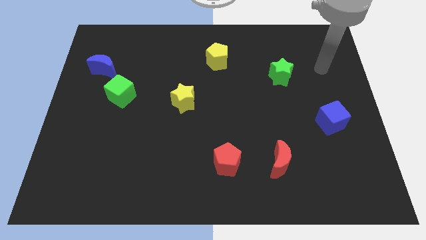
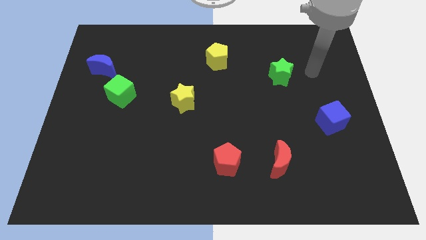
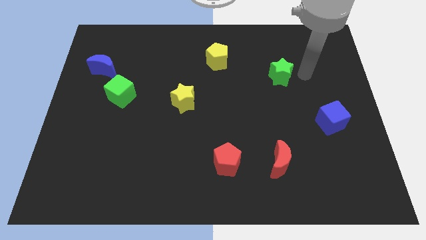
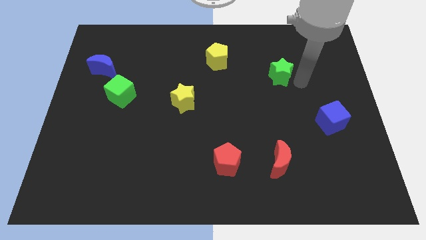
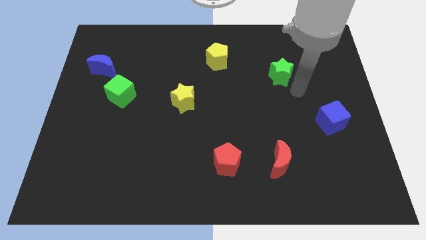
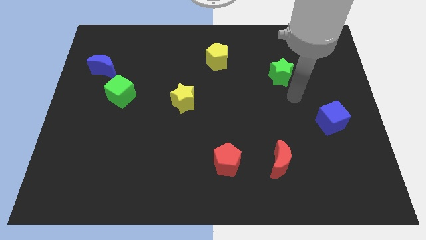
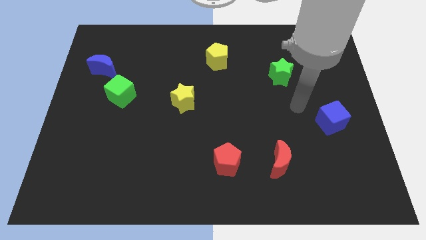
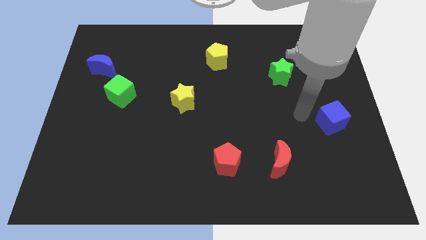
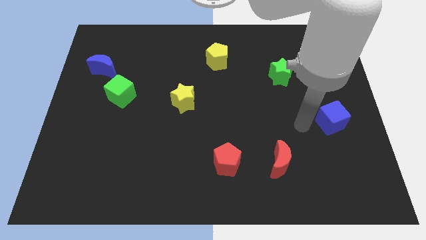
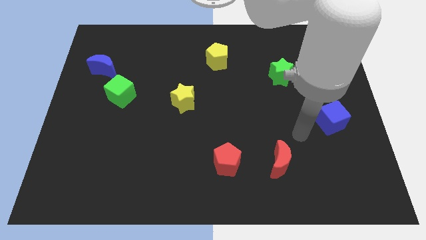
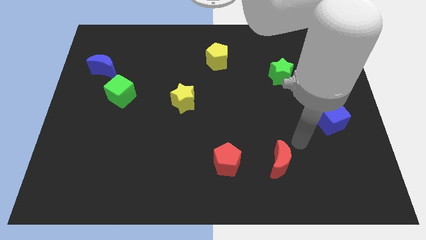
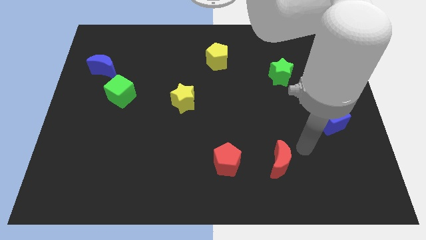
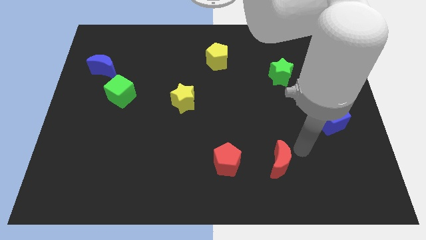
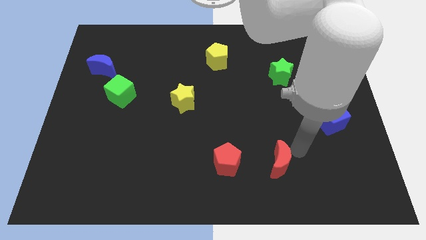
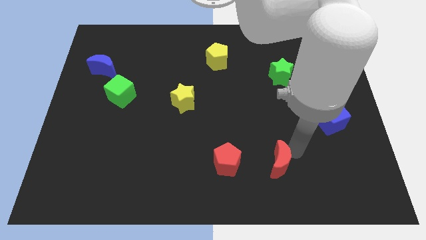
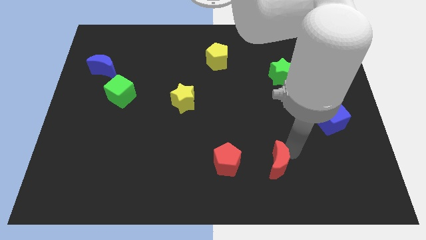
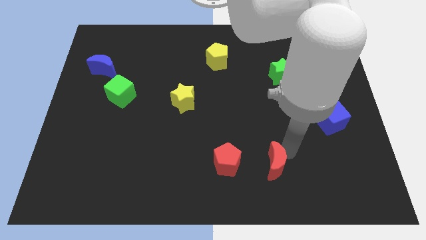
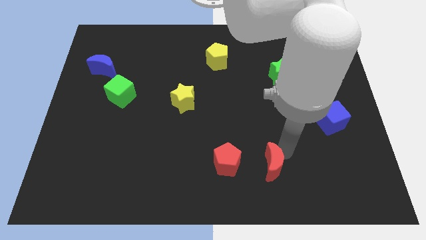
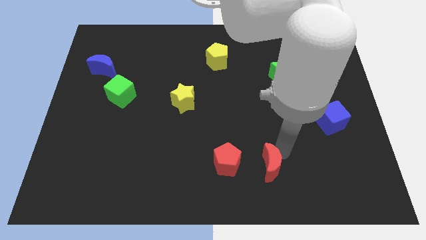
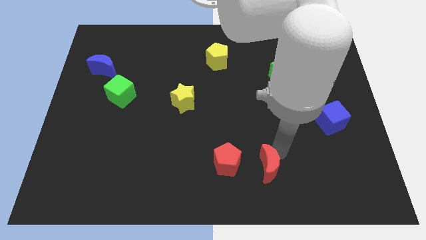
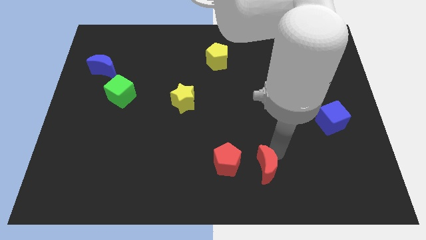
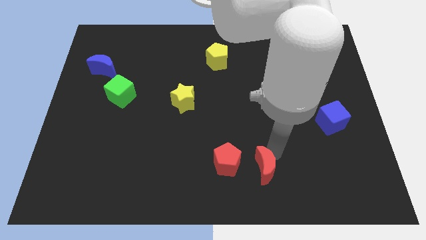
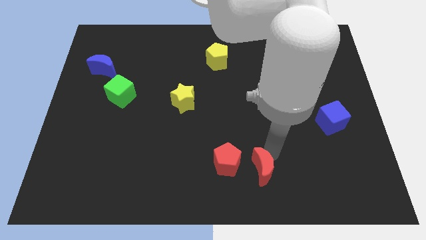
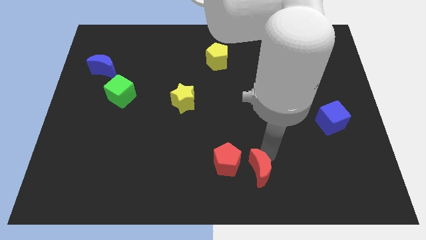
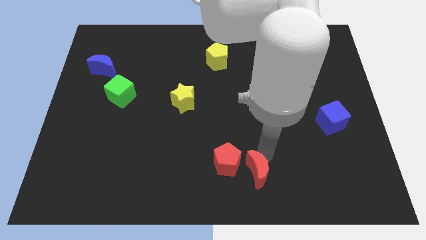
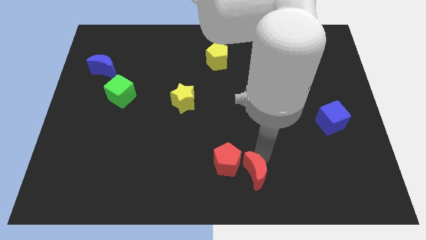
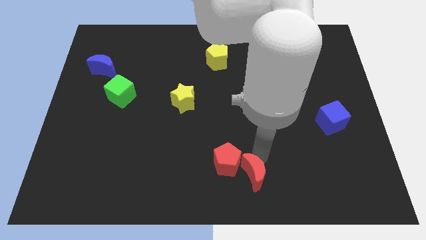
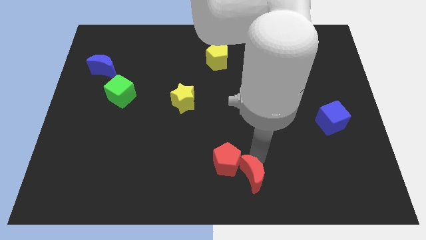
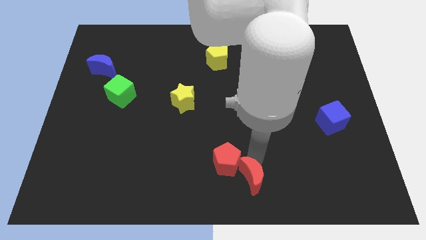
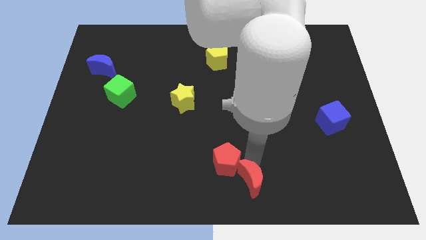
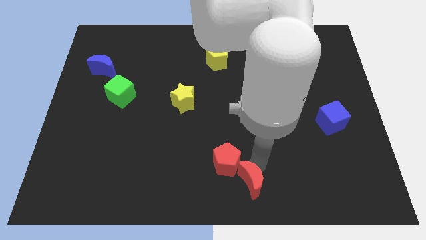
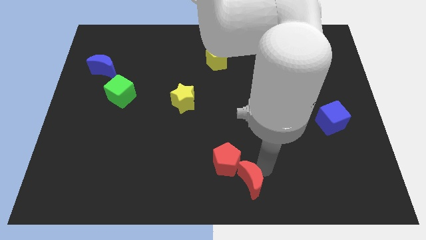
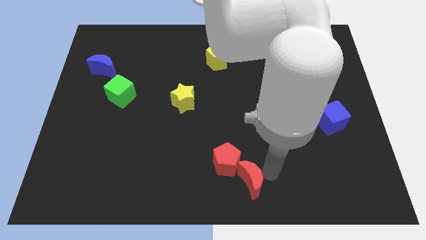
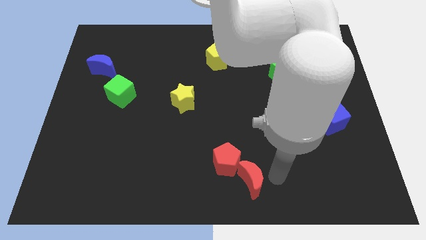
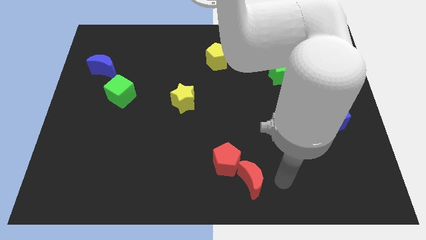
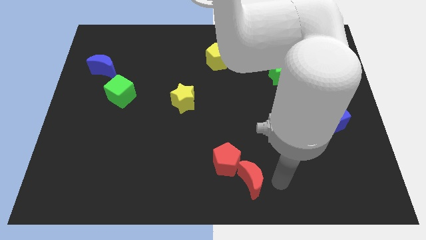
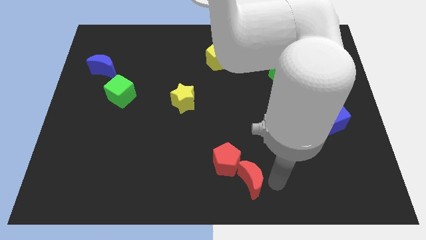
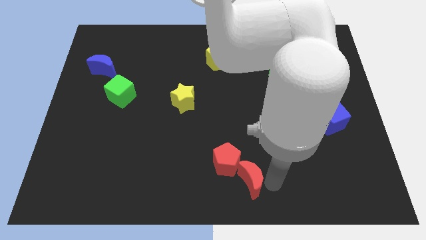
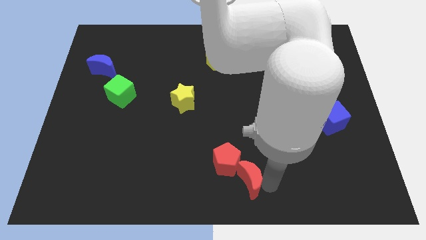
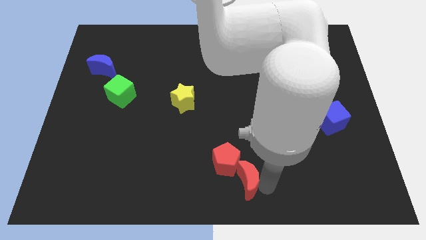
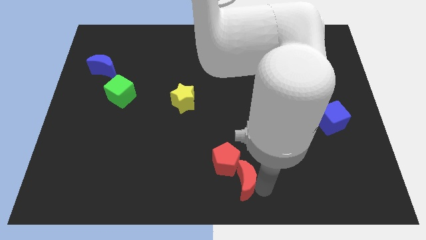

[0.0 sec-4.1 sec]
slide the red moon a little to the left

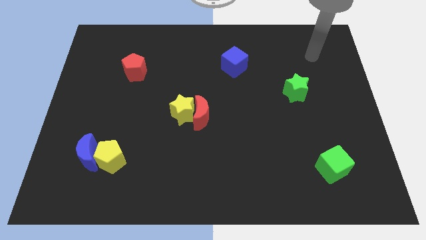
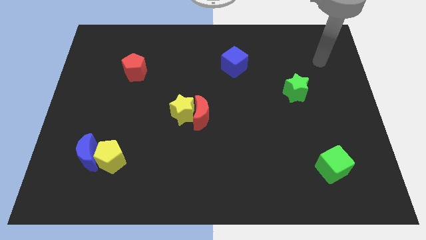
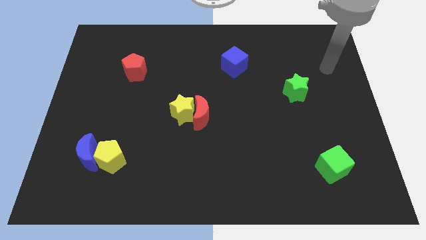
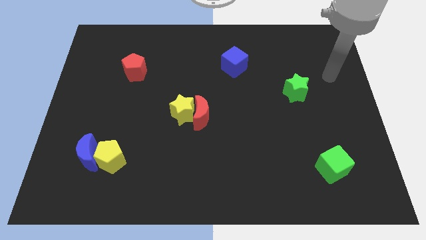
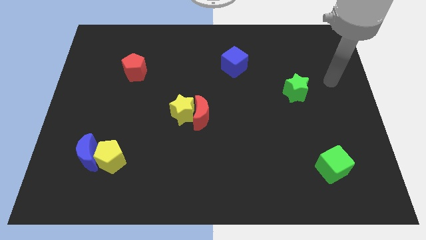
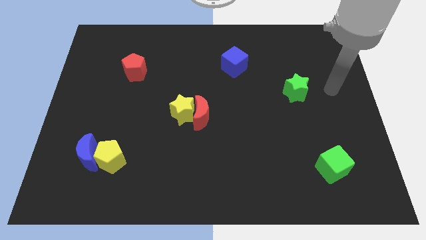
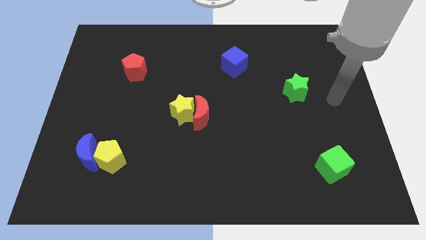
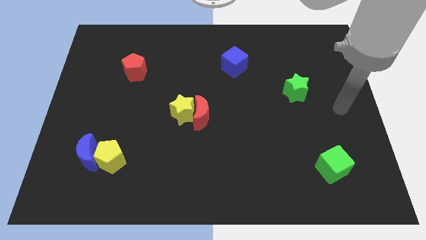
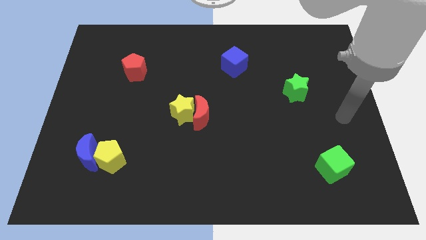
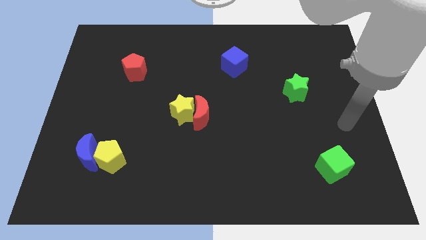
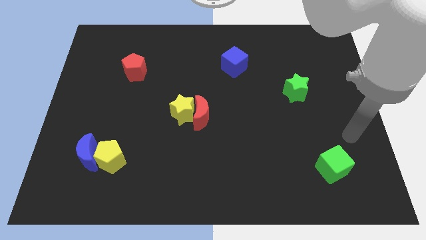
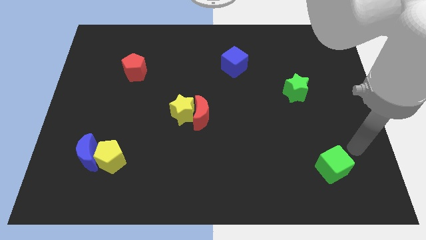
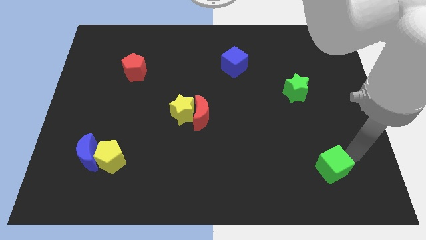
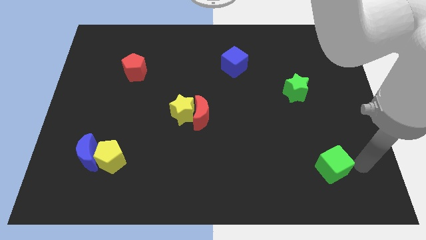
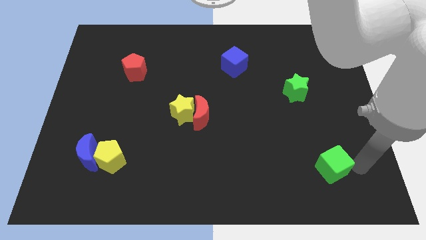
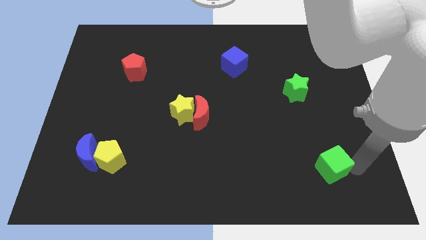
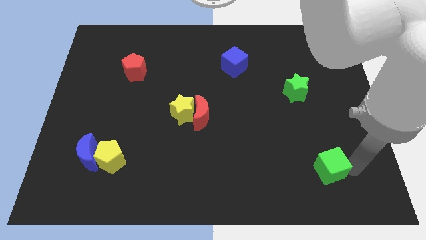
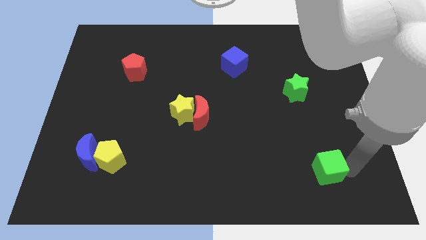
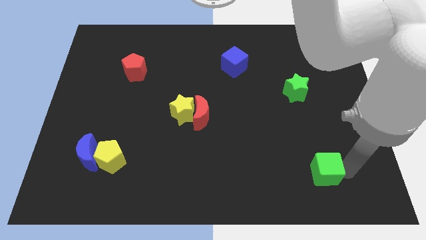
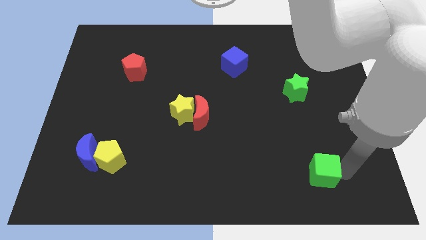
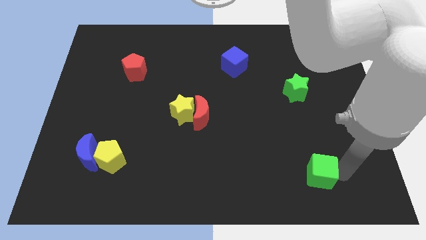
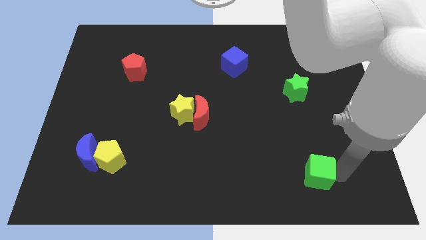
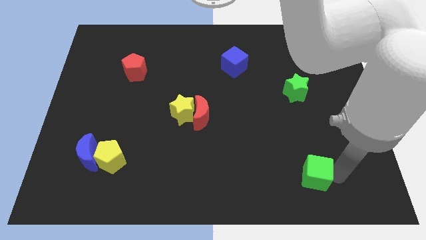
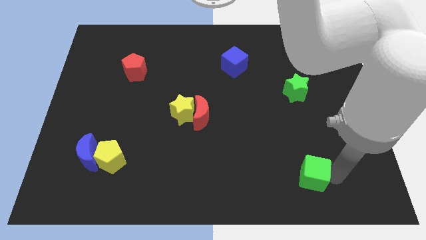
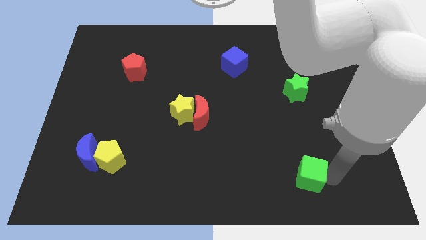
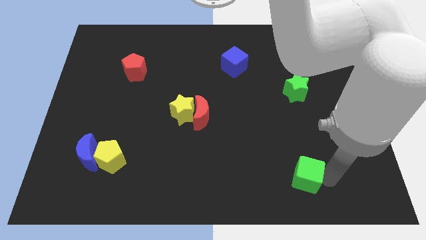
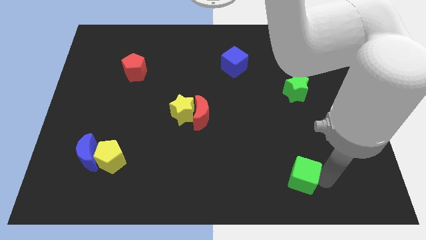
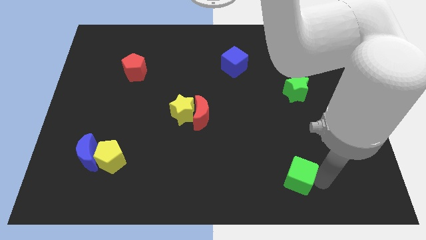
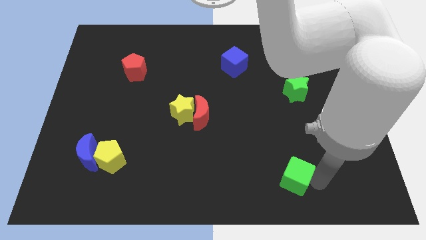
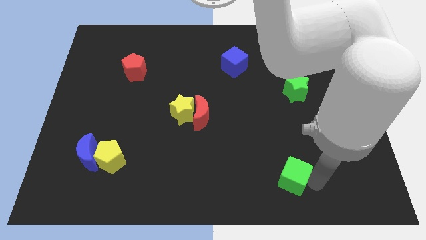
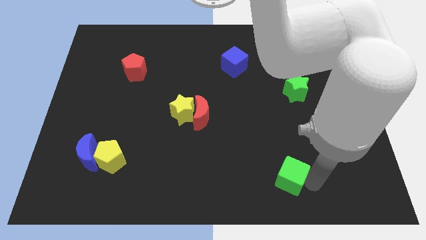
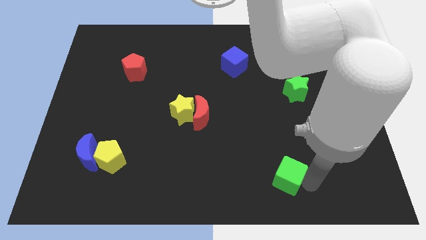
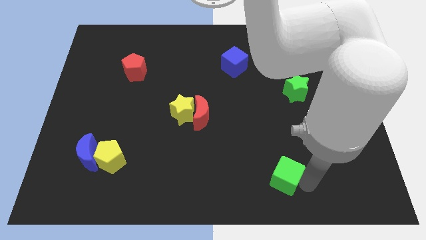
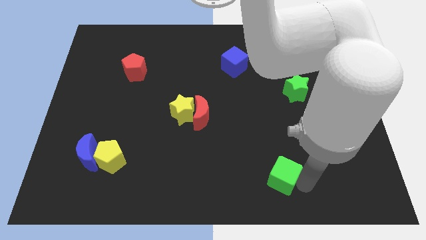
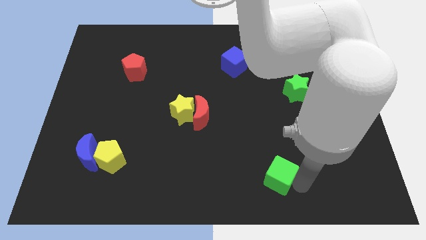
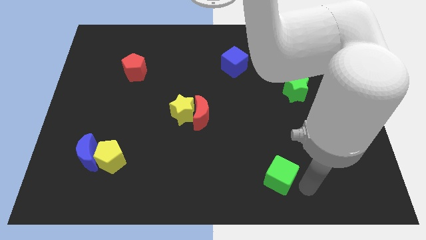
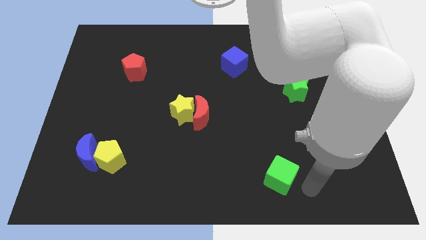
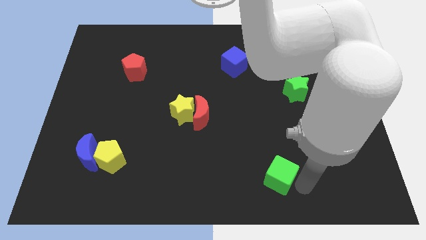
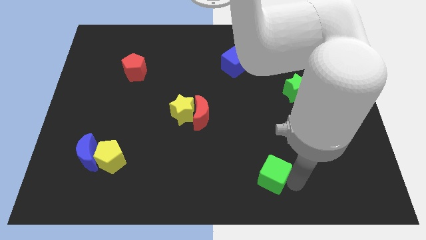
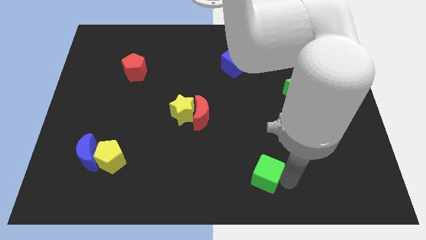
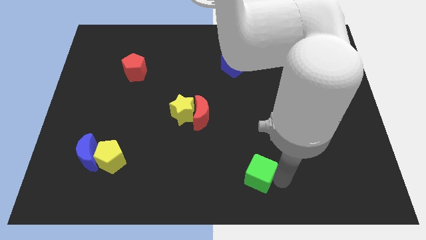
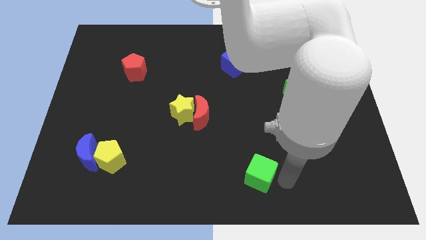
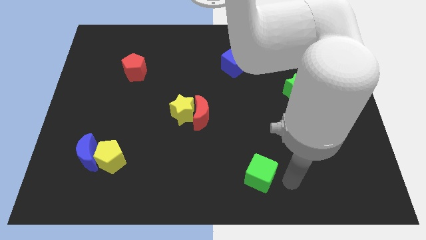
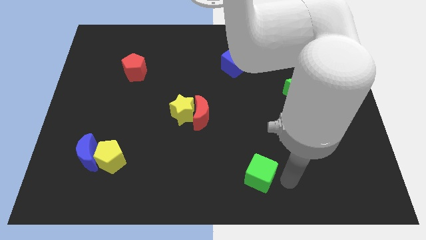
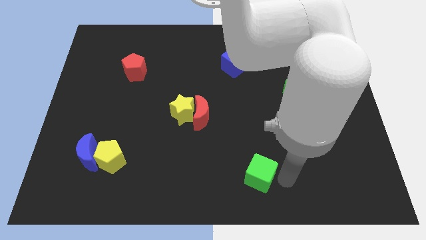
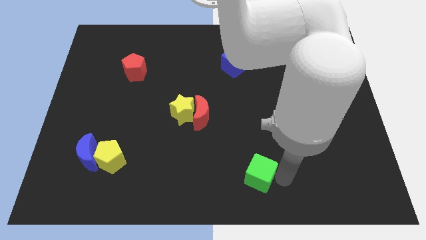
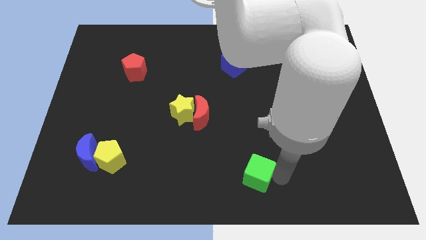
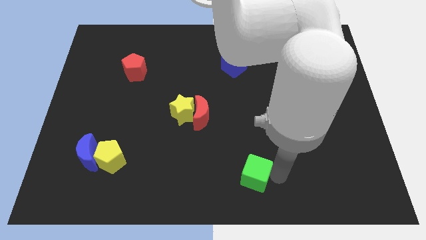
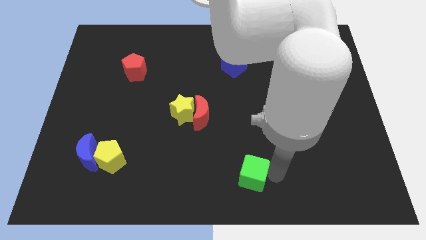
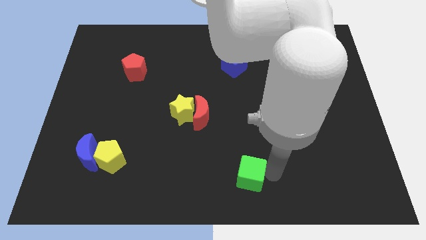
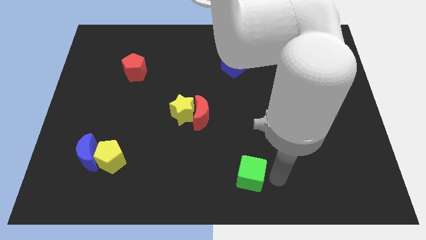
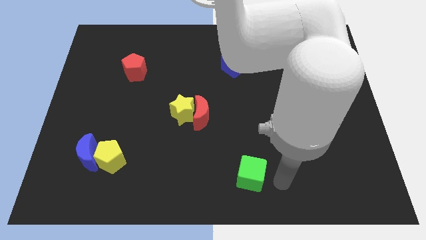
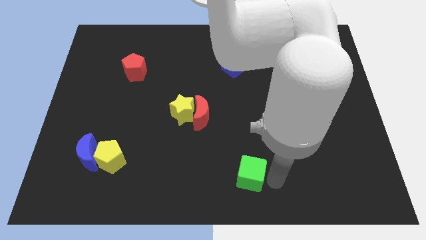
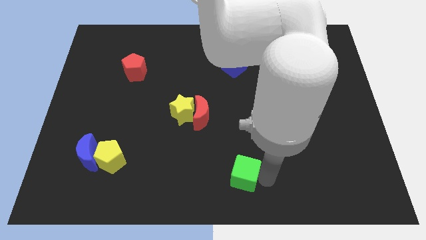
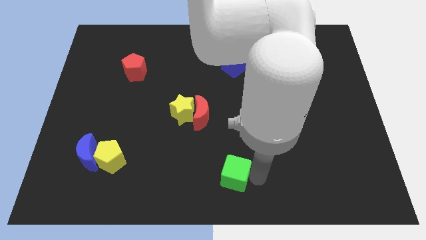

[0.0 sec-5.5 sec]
move the green cube to the left
